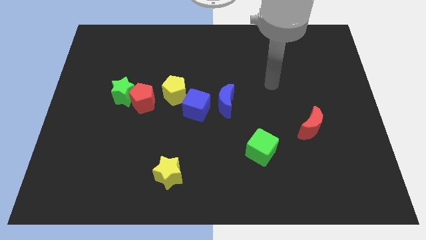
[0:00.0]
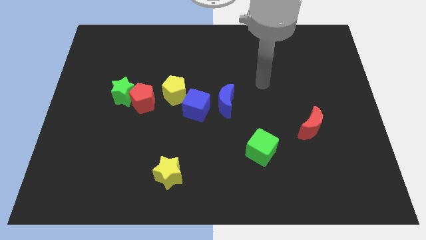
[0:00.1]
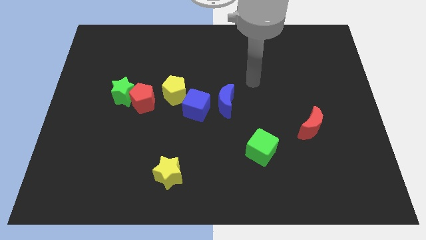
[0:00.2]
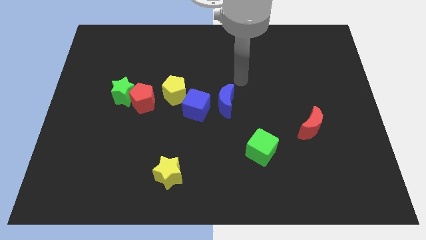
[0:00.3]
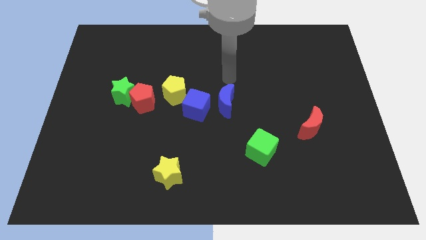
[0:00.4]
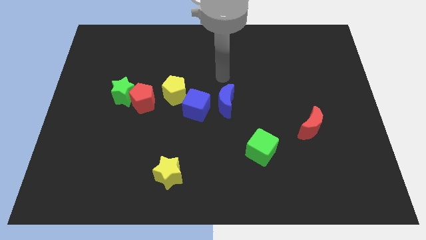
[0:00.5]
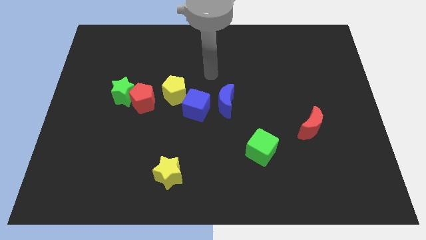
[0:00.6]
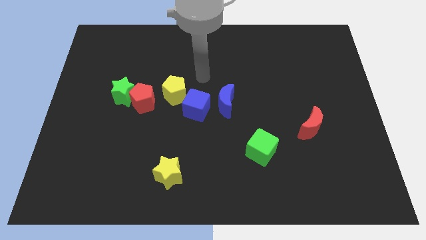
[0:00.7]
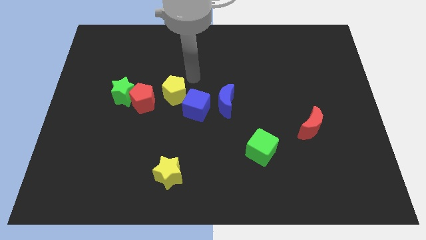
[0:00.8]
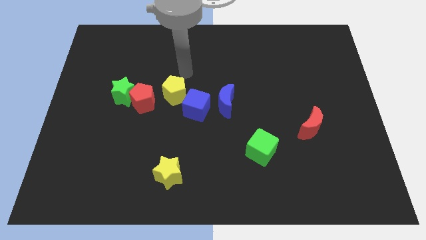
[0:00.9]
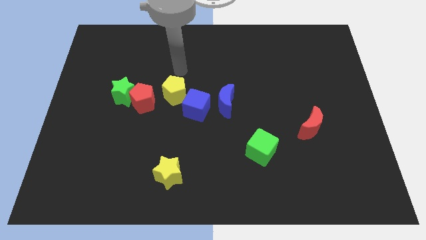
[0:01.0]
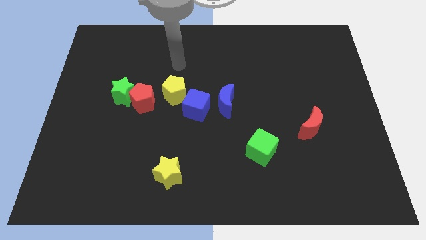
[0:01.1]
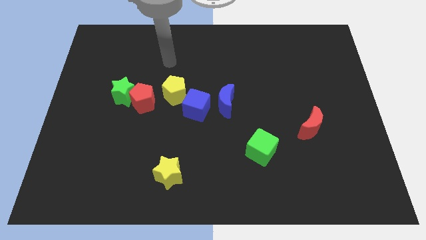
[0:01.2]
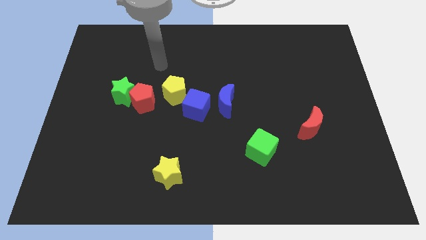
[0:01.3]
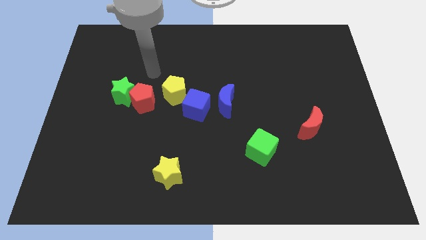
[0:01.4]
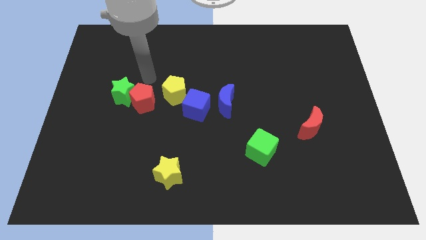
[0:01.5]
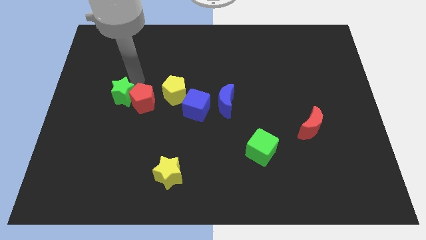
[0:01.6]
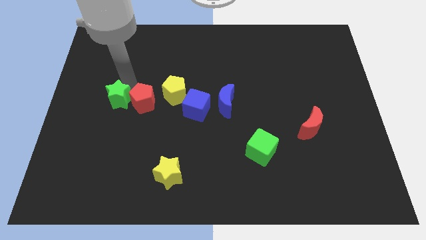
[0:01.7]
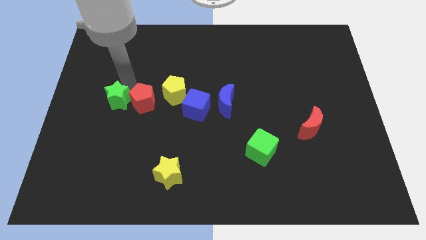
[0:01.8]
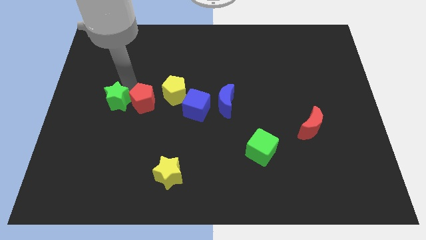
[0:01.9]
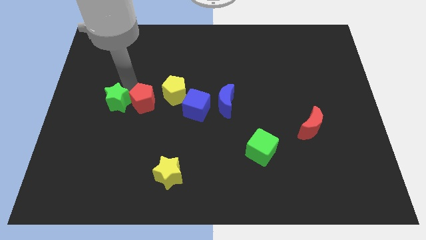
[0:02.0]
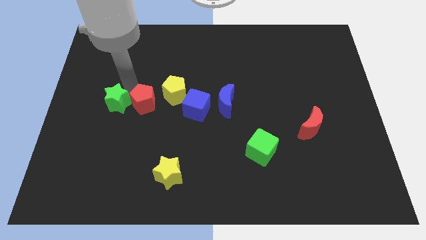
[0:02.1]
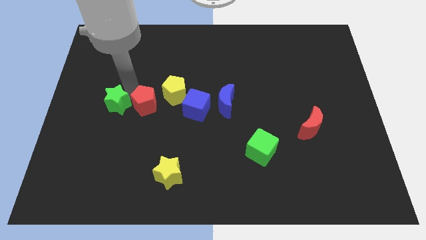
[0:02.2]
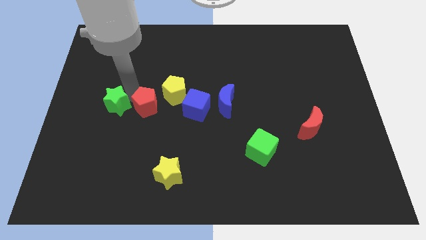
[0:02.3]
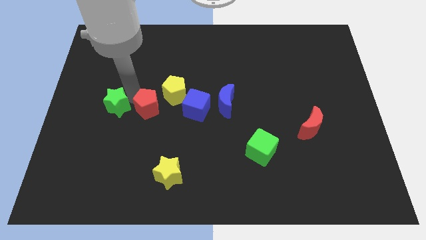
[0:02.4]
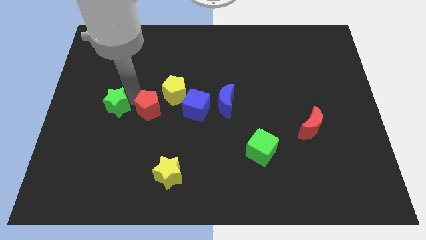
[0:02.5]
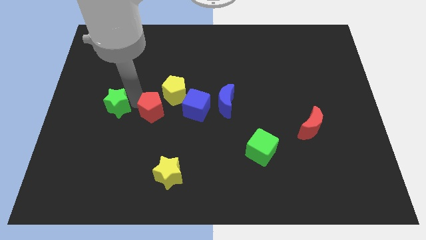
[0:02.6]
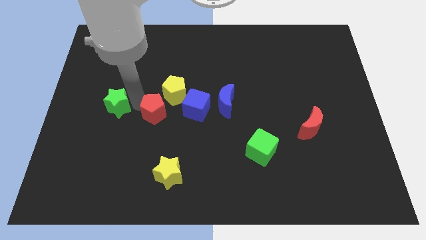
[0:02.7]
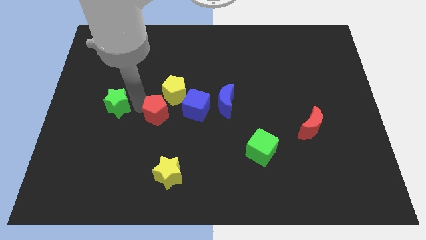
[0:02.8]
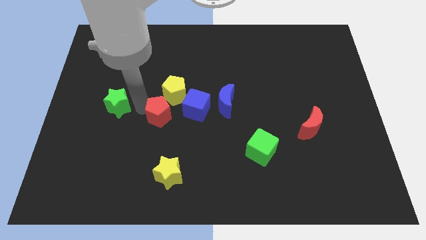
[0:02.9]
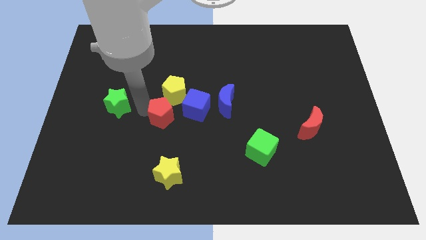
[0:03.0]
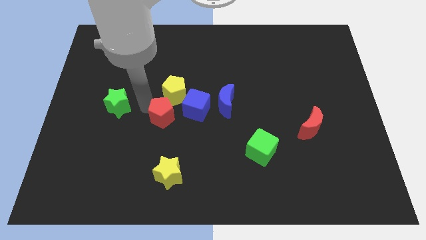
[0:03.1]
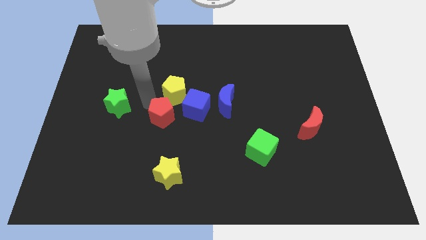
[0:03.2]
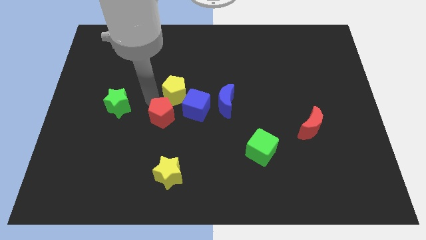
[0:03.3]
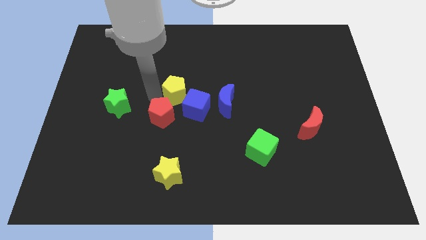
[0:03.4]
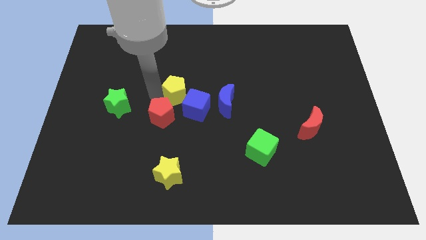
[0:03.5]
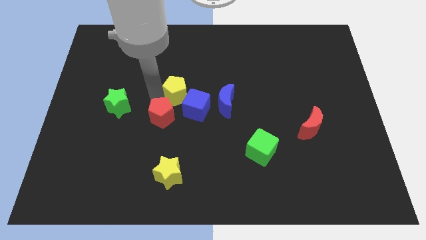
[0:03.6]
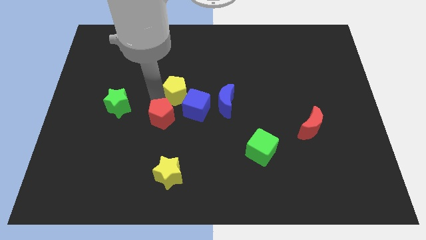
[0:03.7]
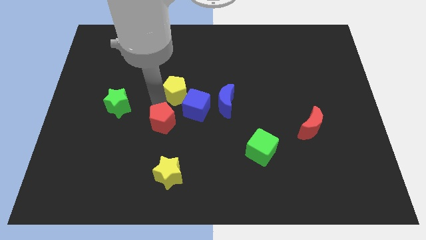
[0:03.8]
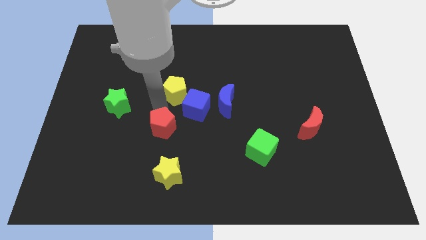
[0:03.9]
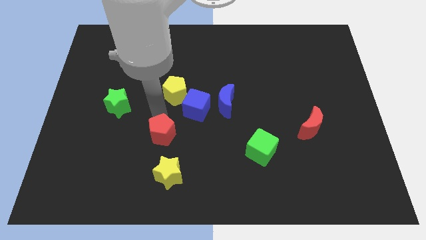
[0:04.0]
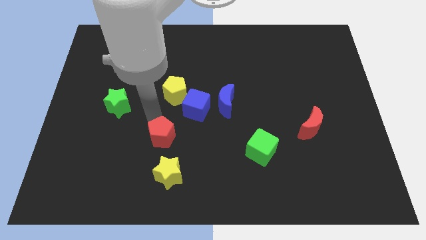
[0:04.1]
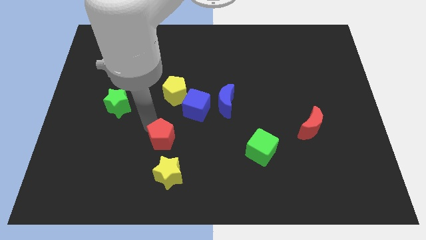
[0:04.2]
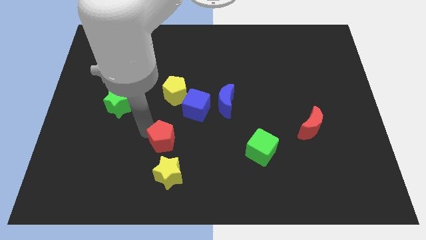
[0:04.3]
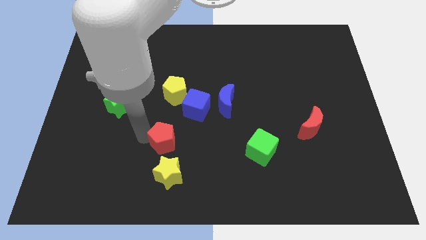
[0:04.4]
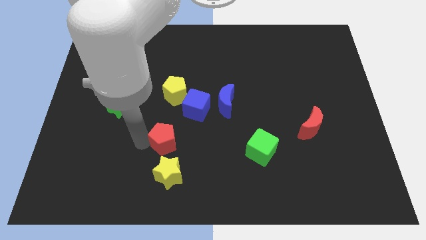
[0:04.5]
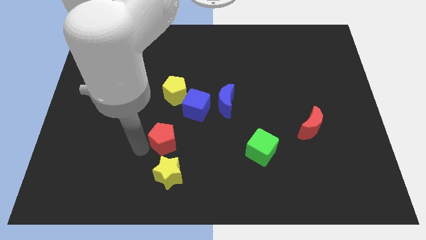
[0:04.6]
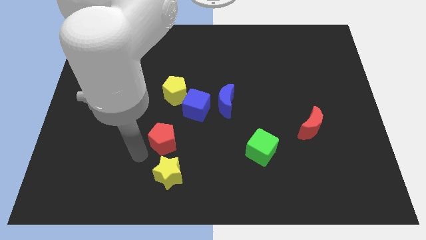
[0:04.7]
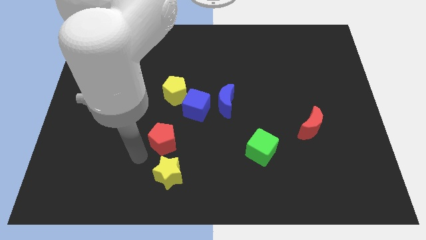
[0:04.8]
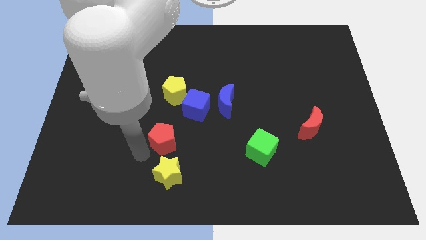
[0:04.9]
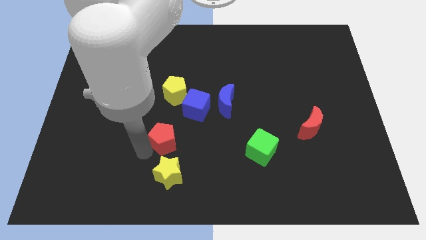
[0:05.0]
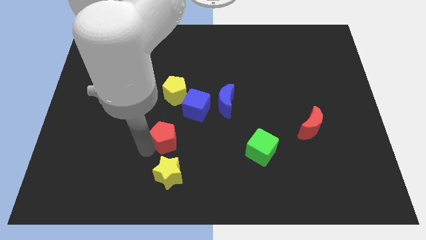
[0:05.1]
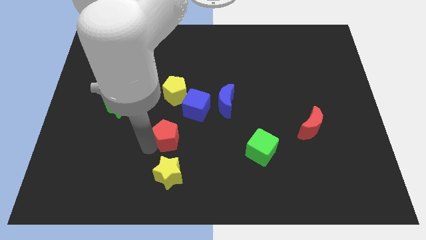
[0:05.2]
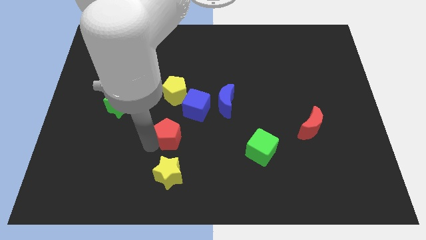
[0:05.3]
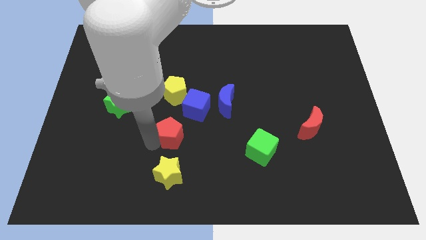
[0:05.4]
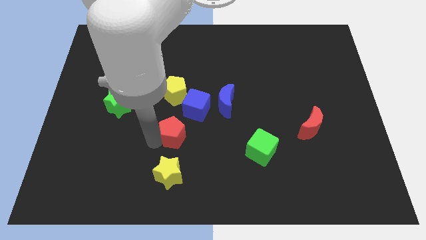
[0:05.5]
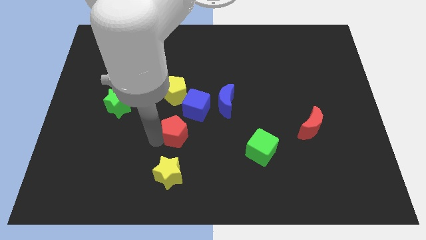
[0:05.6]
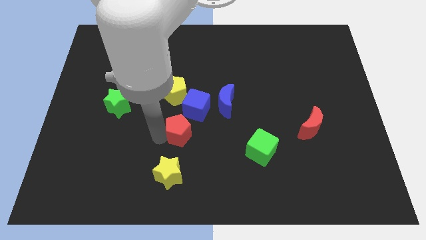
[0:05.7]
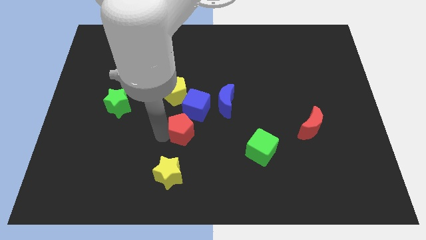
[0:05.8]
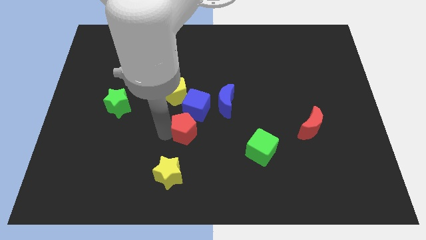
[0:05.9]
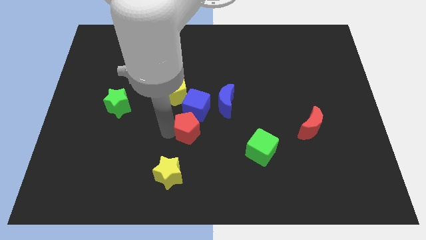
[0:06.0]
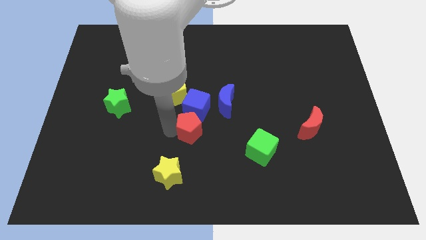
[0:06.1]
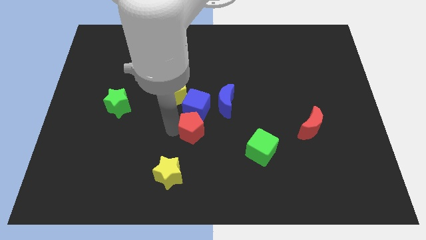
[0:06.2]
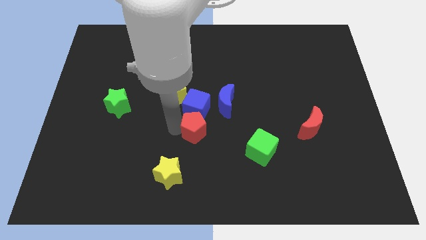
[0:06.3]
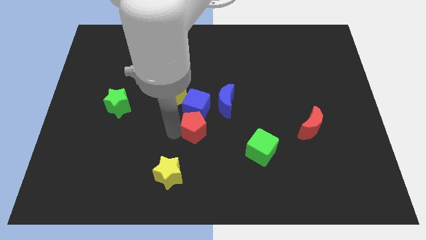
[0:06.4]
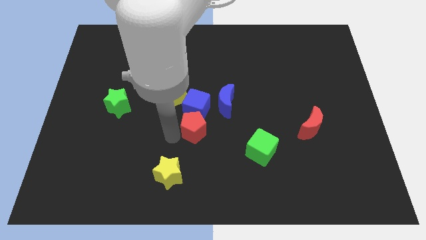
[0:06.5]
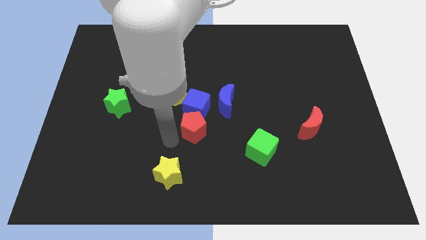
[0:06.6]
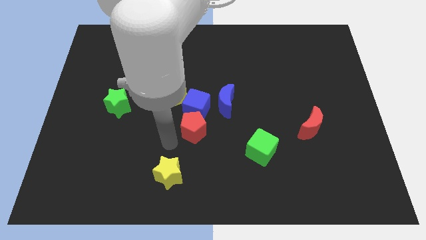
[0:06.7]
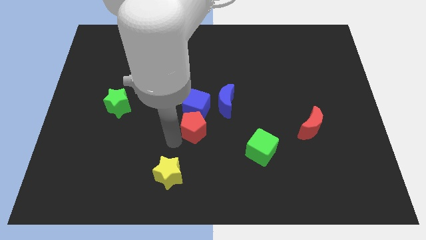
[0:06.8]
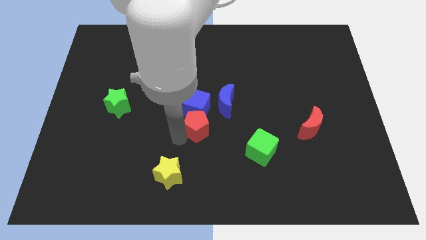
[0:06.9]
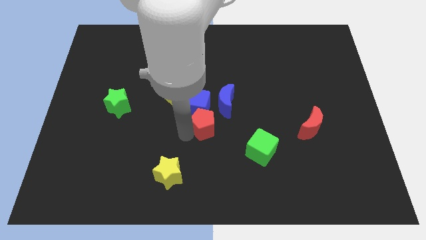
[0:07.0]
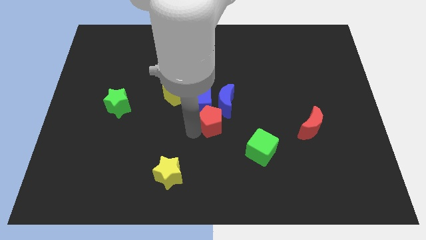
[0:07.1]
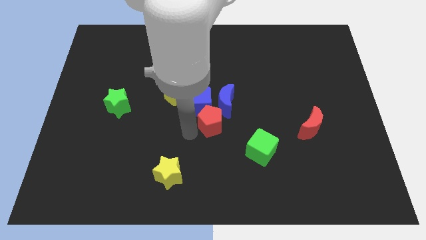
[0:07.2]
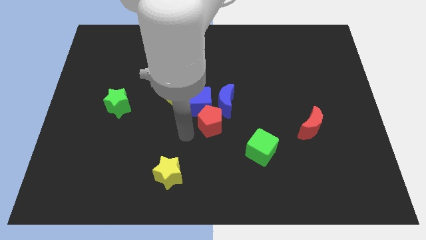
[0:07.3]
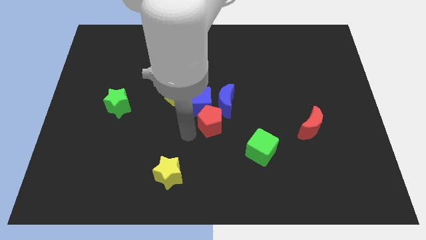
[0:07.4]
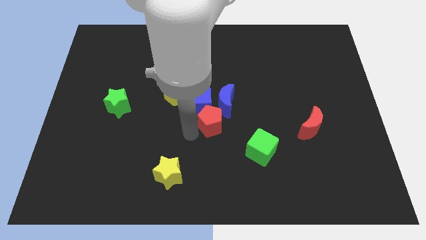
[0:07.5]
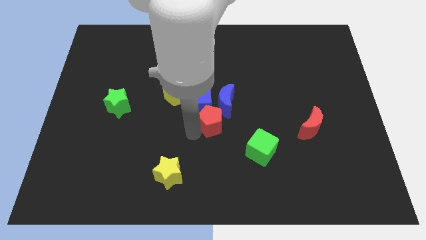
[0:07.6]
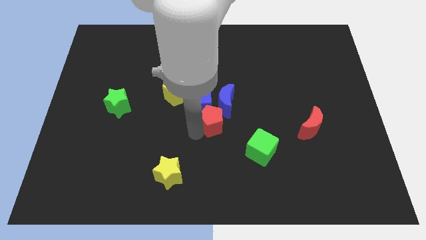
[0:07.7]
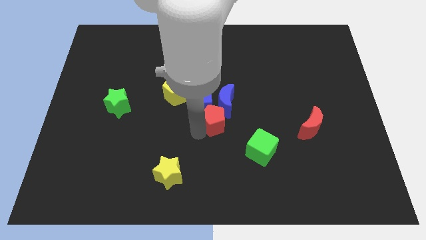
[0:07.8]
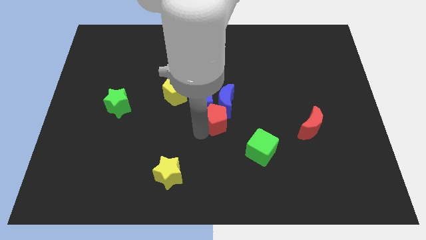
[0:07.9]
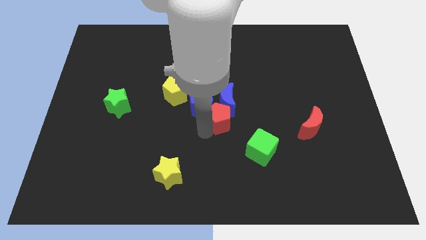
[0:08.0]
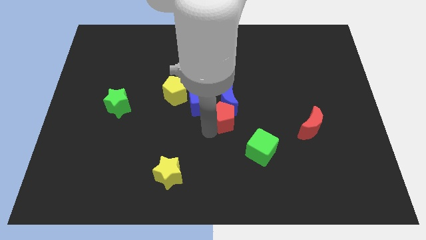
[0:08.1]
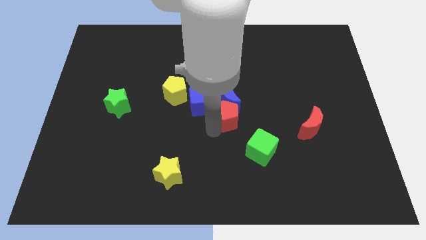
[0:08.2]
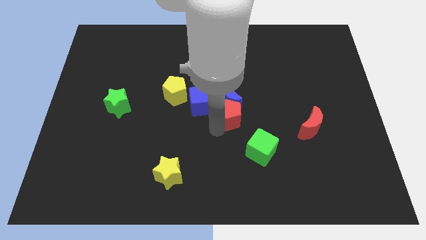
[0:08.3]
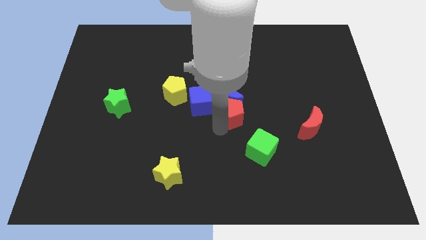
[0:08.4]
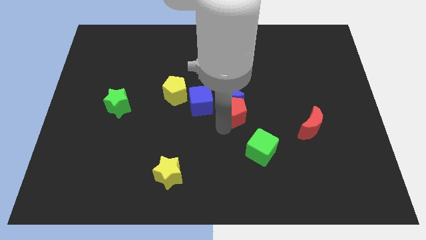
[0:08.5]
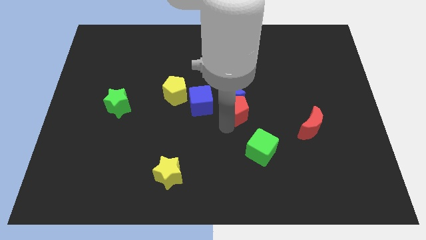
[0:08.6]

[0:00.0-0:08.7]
push the red pentagon to the top of the green cube
